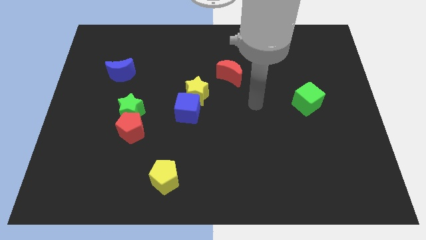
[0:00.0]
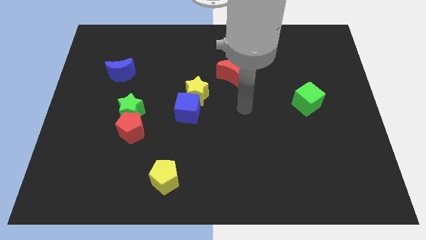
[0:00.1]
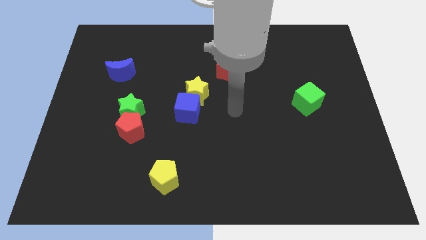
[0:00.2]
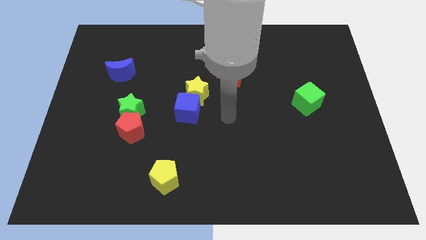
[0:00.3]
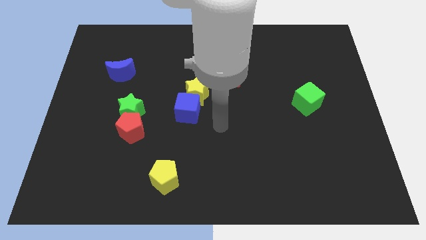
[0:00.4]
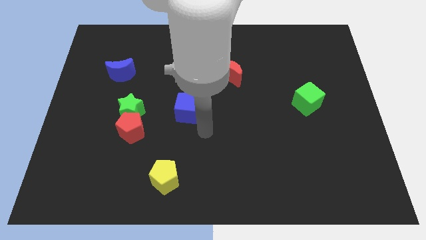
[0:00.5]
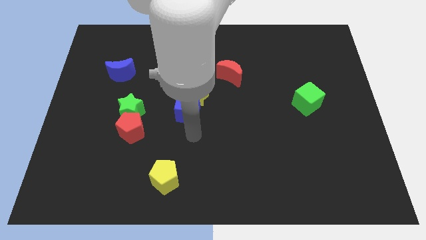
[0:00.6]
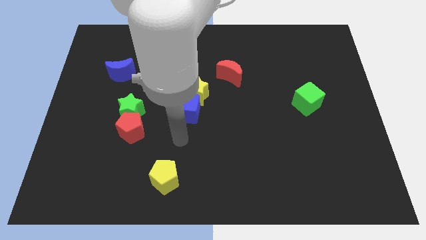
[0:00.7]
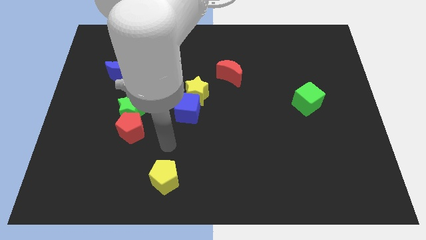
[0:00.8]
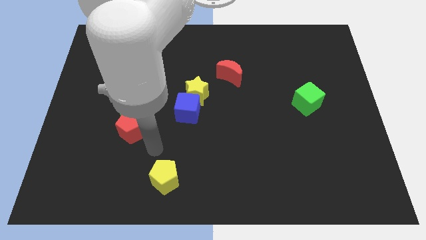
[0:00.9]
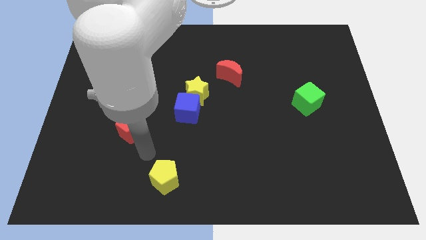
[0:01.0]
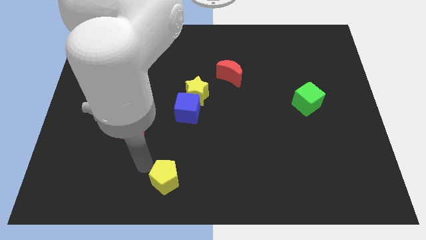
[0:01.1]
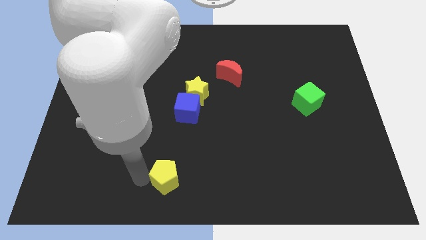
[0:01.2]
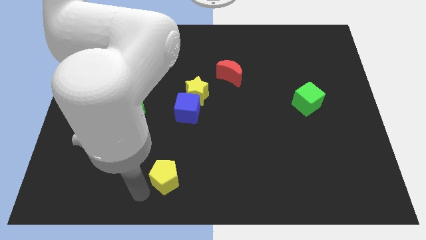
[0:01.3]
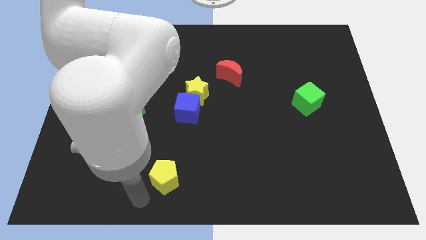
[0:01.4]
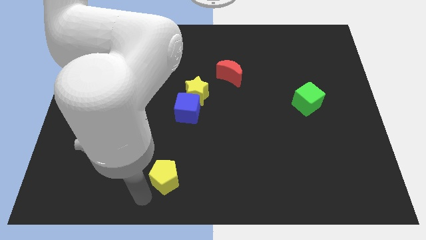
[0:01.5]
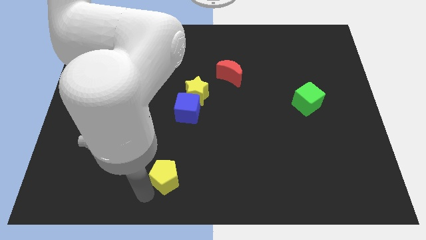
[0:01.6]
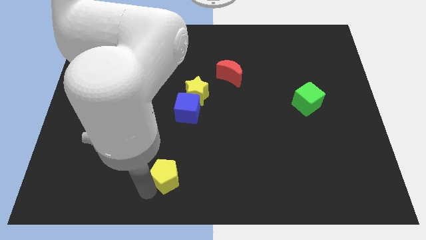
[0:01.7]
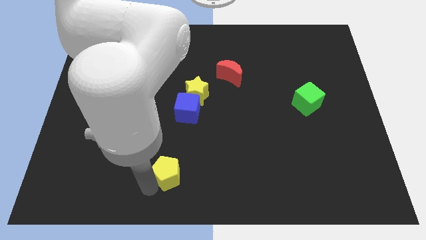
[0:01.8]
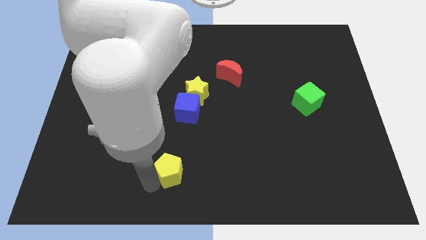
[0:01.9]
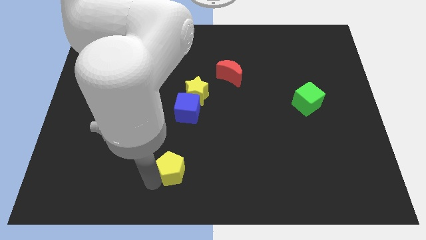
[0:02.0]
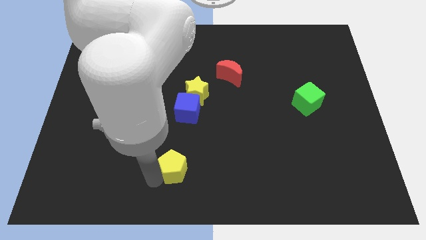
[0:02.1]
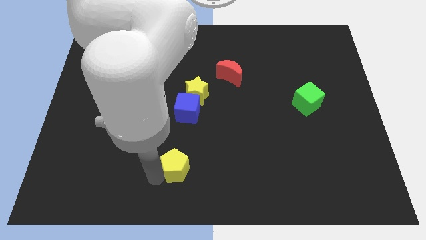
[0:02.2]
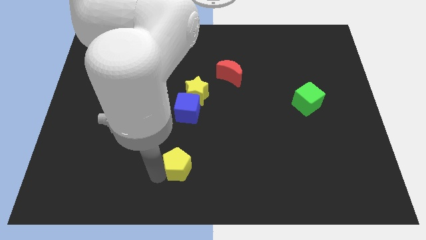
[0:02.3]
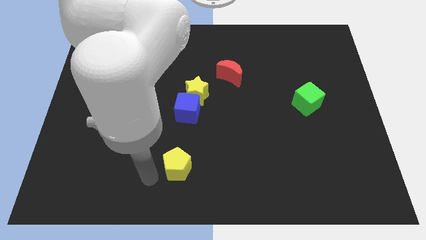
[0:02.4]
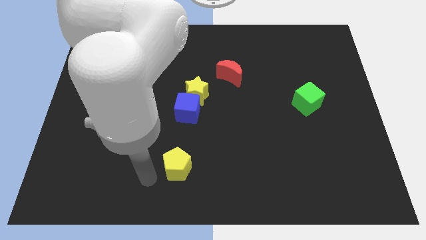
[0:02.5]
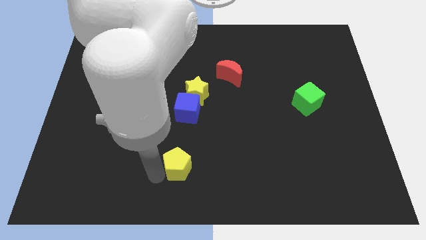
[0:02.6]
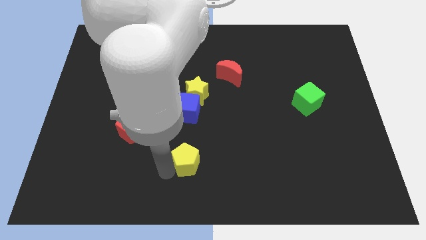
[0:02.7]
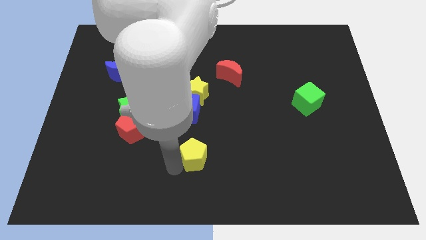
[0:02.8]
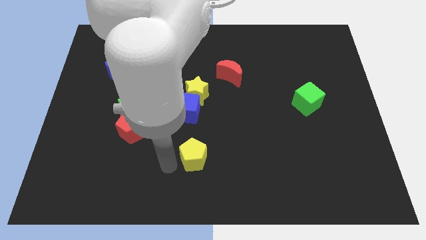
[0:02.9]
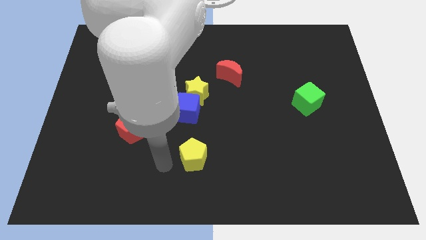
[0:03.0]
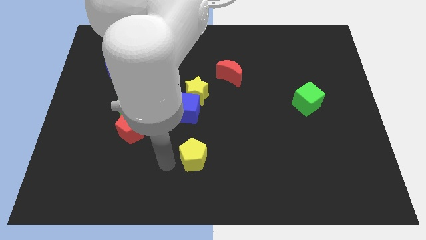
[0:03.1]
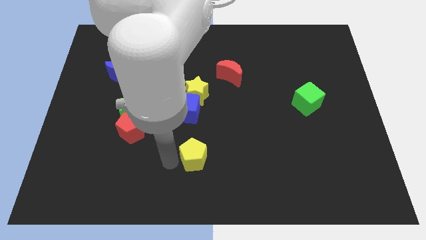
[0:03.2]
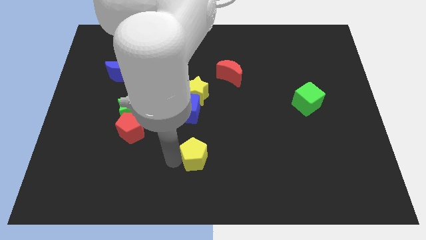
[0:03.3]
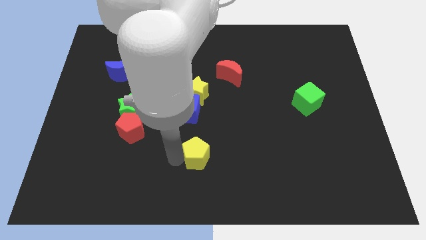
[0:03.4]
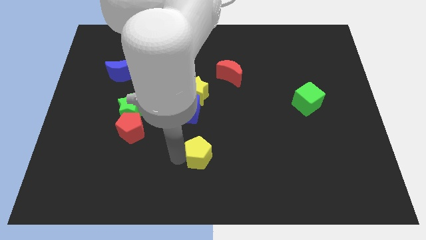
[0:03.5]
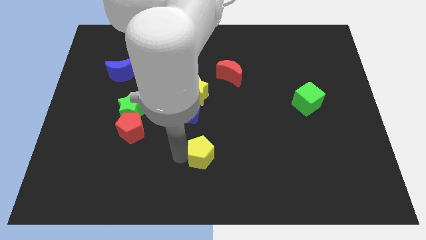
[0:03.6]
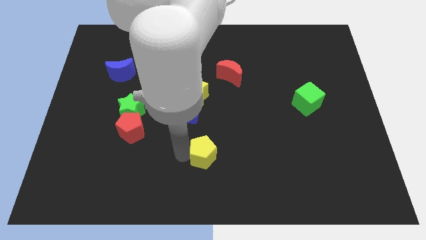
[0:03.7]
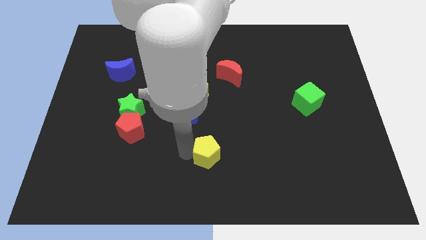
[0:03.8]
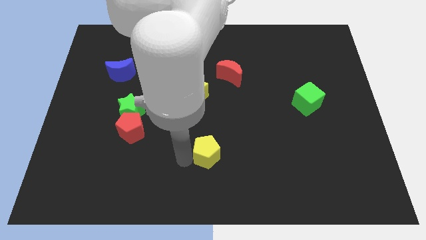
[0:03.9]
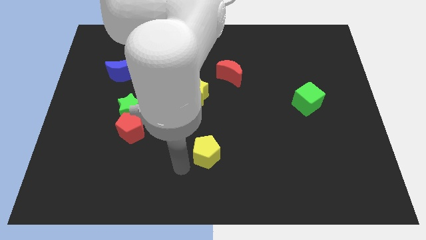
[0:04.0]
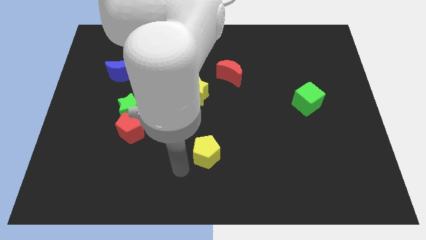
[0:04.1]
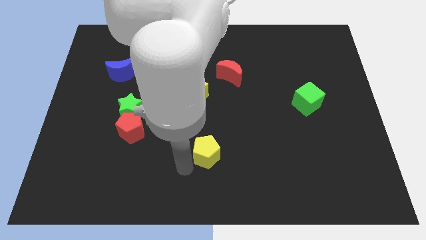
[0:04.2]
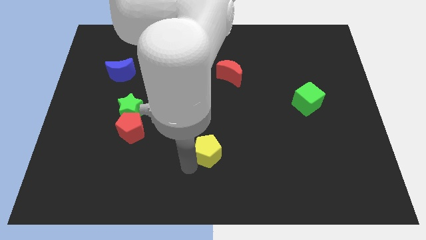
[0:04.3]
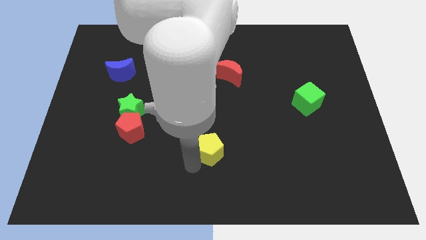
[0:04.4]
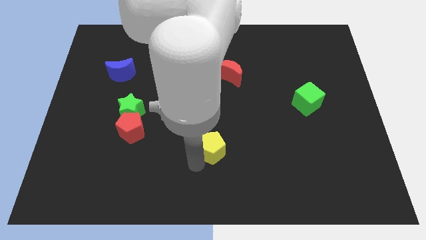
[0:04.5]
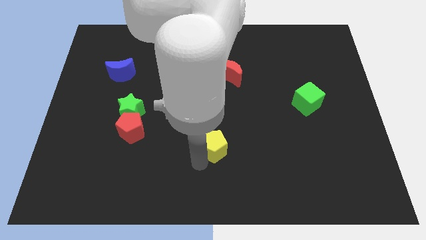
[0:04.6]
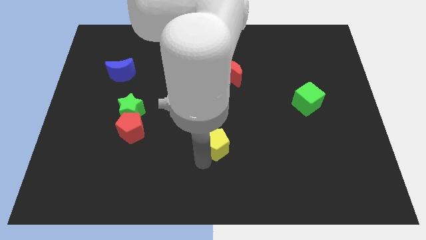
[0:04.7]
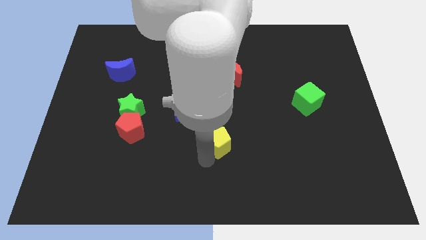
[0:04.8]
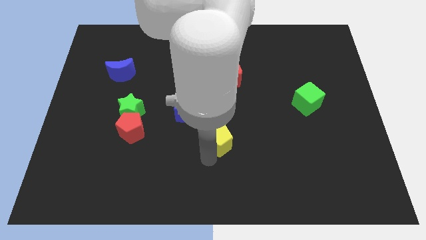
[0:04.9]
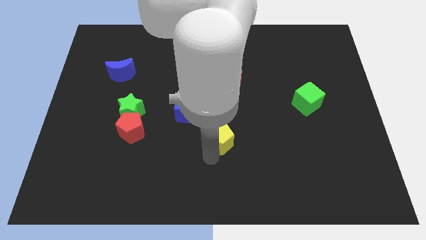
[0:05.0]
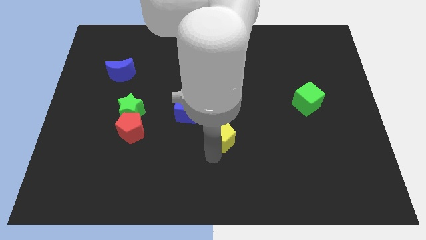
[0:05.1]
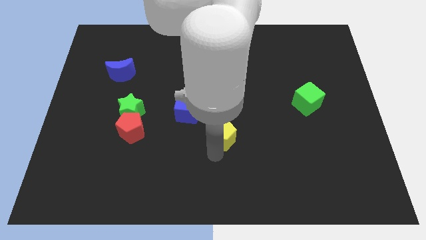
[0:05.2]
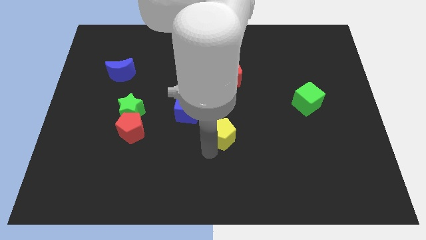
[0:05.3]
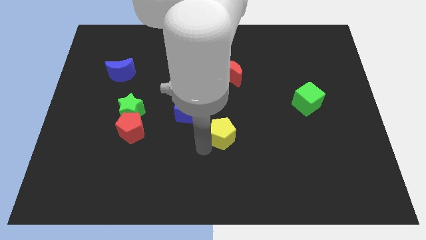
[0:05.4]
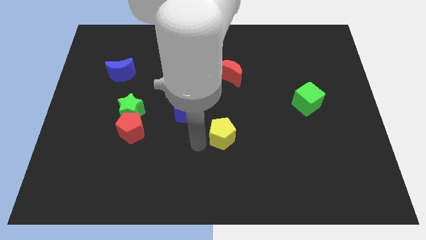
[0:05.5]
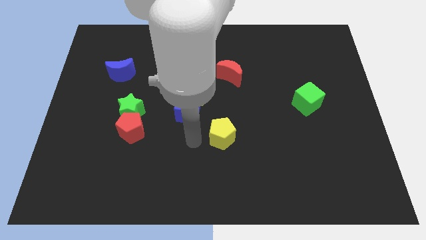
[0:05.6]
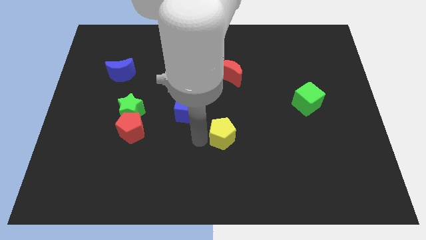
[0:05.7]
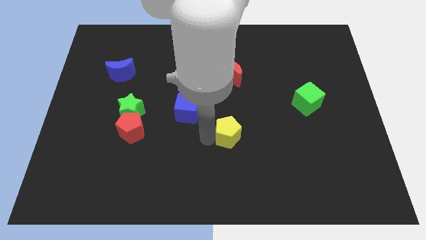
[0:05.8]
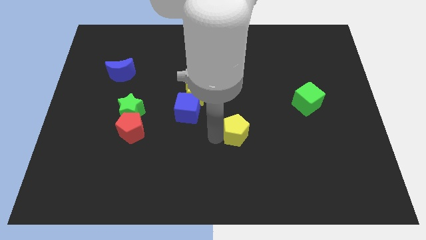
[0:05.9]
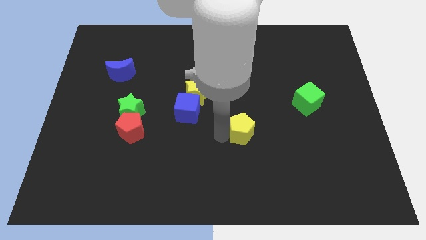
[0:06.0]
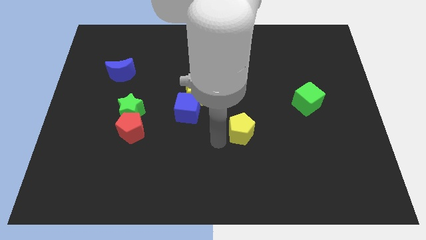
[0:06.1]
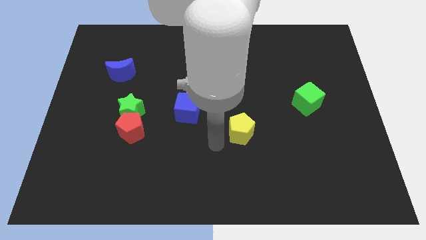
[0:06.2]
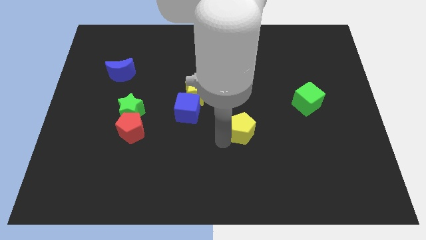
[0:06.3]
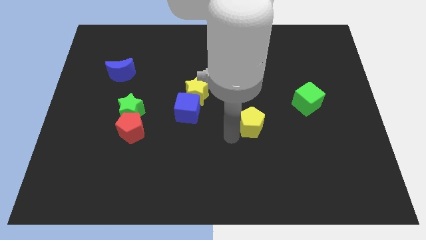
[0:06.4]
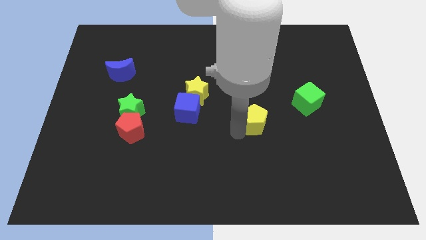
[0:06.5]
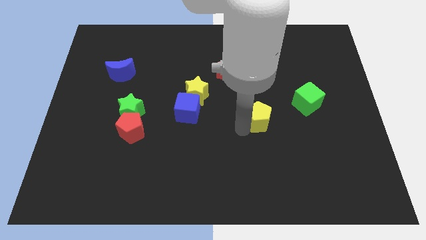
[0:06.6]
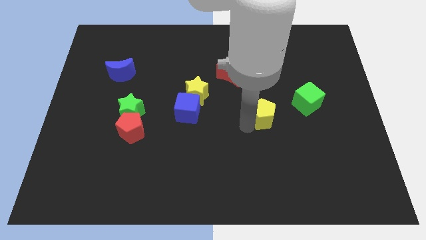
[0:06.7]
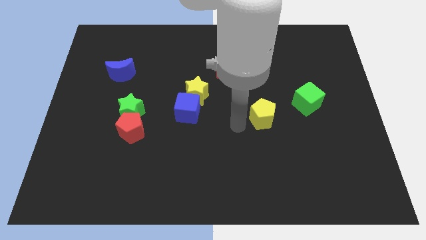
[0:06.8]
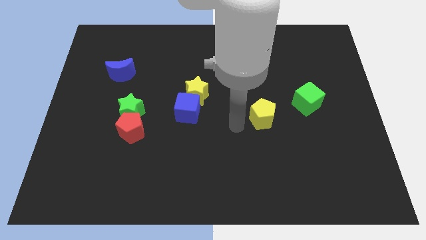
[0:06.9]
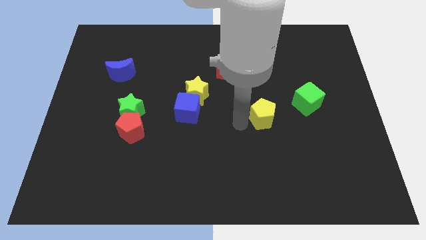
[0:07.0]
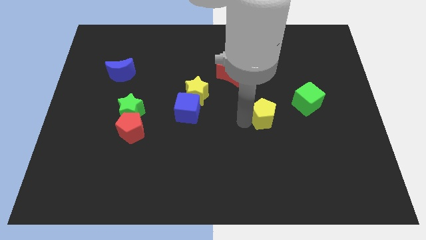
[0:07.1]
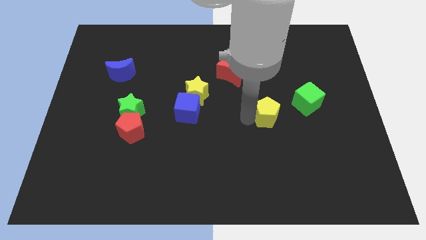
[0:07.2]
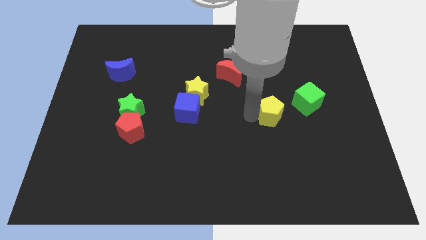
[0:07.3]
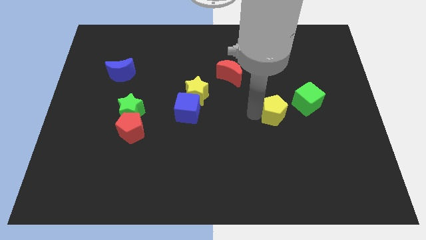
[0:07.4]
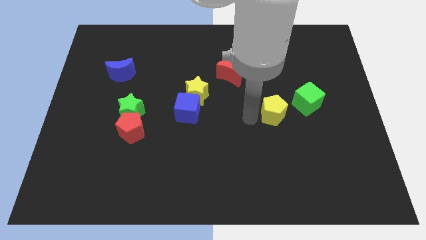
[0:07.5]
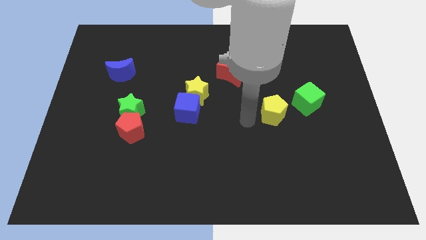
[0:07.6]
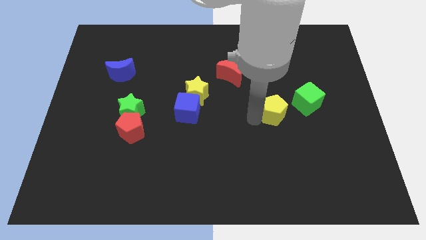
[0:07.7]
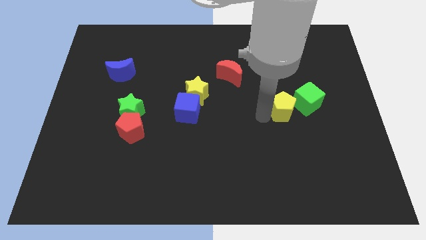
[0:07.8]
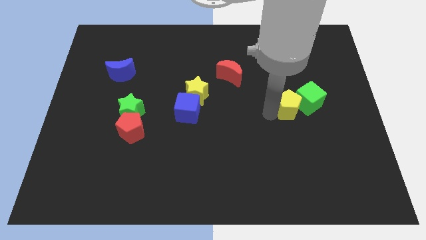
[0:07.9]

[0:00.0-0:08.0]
move the yellow pentagon next to the green cube
